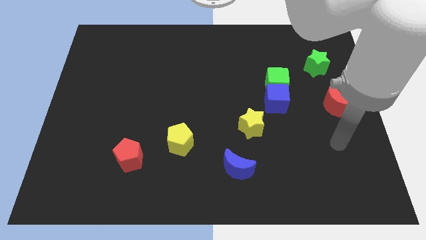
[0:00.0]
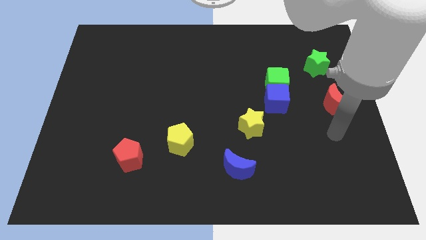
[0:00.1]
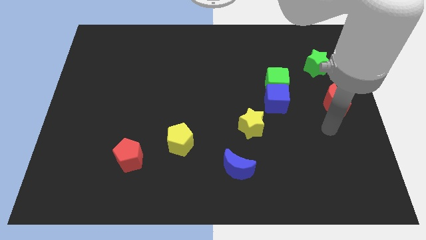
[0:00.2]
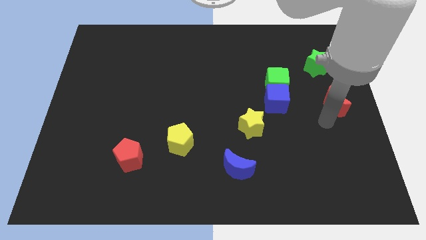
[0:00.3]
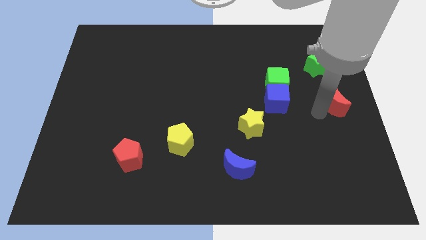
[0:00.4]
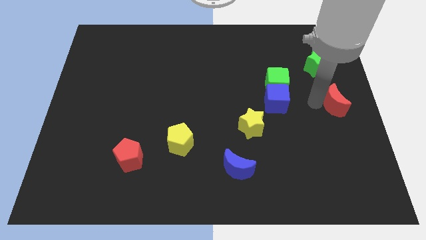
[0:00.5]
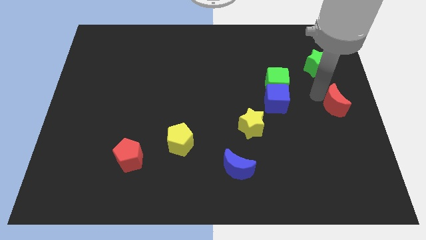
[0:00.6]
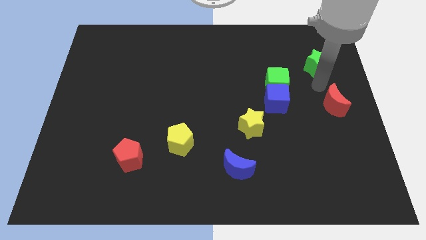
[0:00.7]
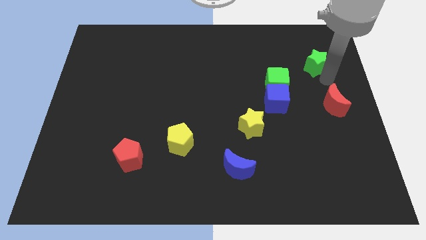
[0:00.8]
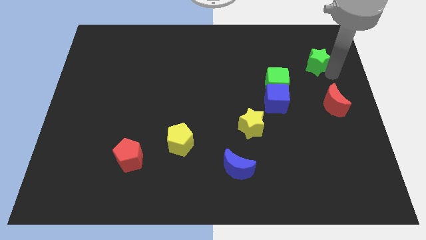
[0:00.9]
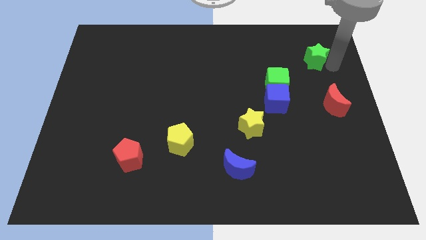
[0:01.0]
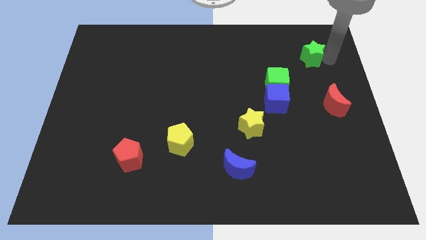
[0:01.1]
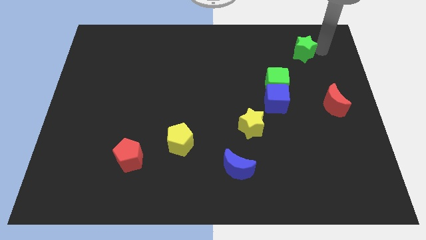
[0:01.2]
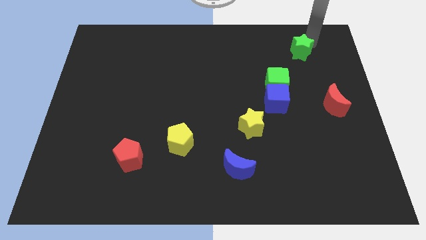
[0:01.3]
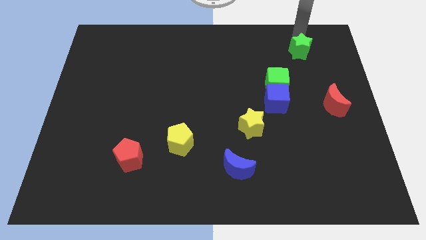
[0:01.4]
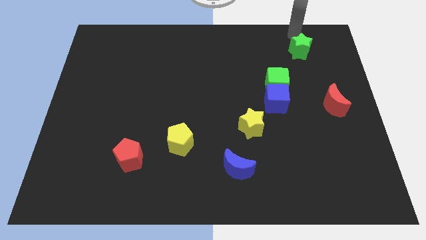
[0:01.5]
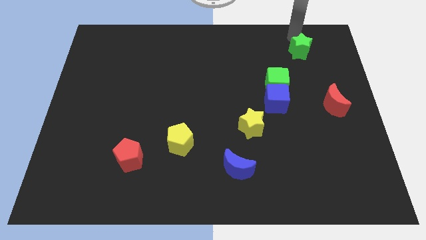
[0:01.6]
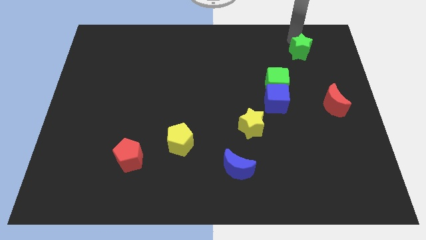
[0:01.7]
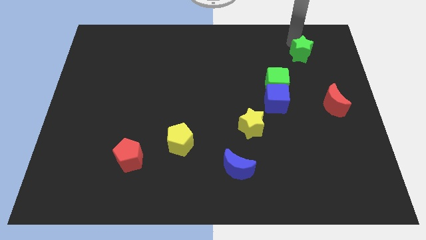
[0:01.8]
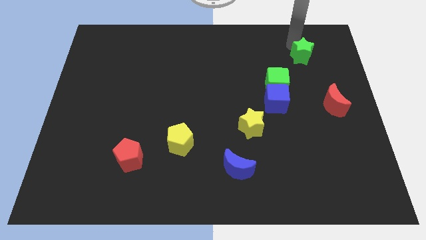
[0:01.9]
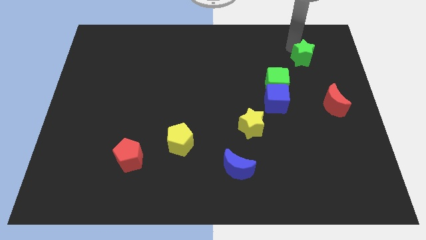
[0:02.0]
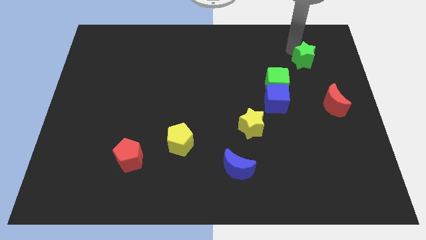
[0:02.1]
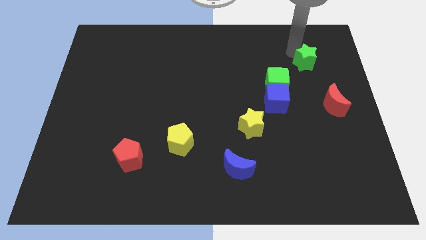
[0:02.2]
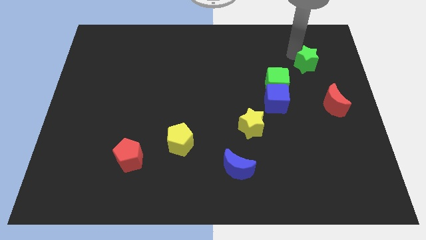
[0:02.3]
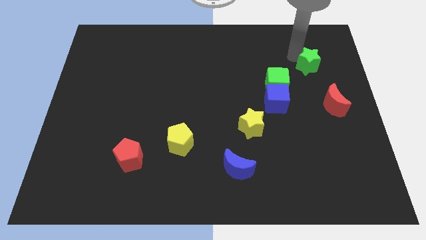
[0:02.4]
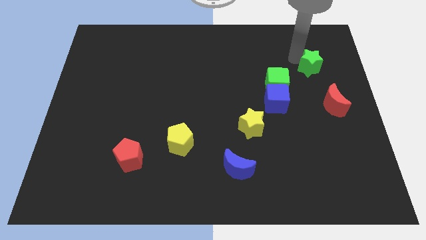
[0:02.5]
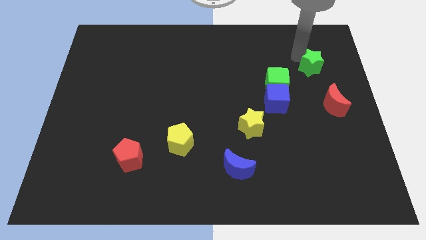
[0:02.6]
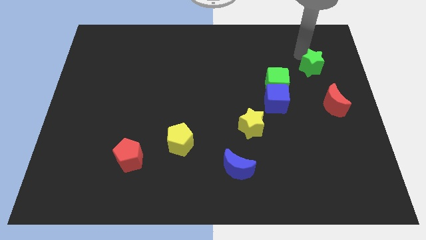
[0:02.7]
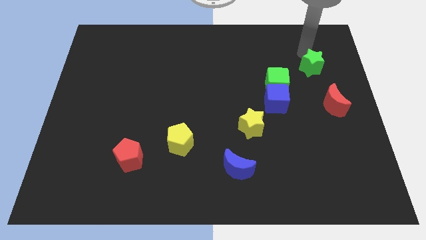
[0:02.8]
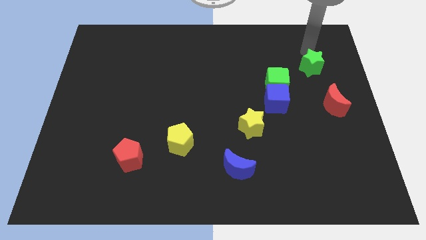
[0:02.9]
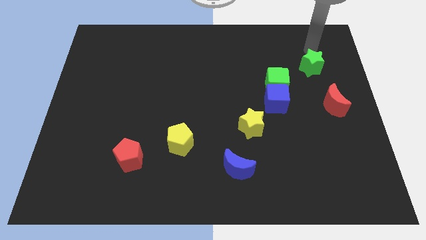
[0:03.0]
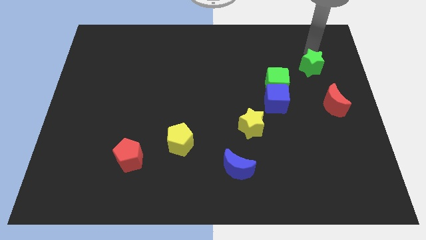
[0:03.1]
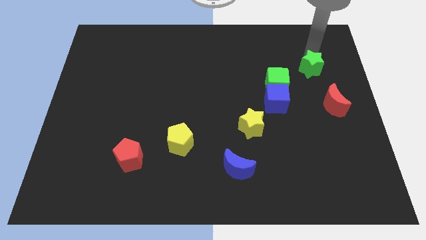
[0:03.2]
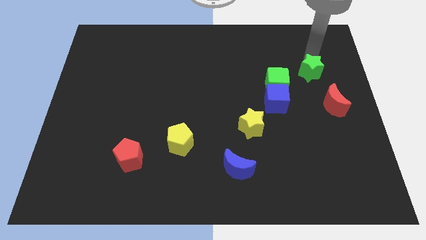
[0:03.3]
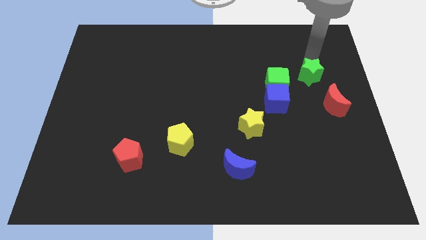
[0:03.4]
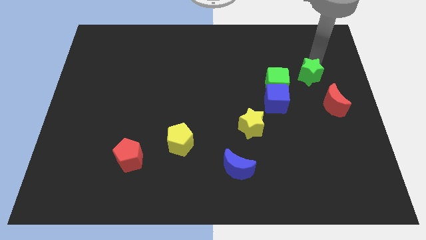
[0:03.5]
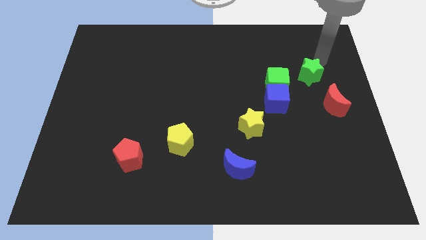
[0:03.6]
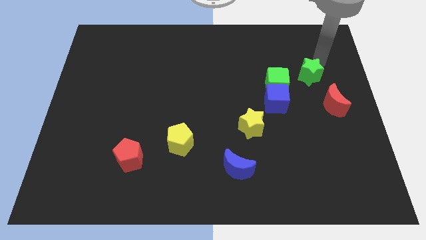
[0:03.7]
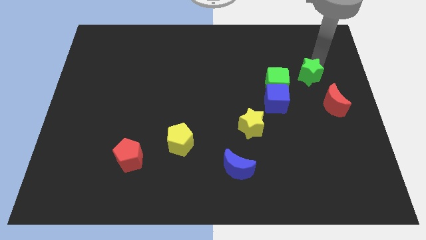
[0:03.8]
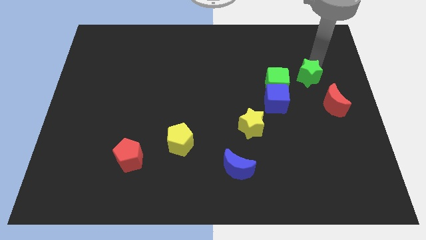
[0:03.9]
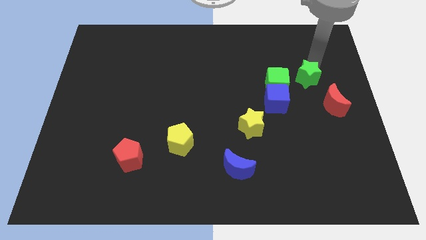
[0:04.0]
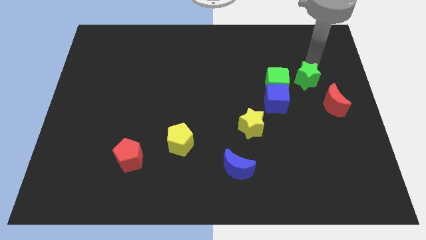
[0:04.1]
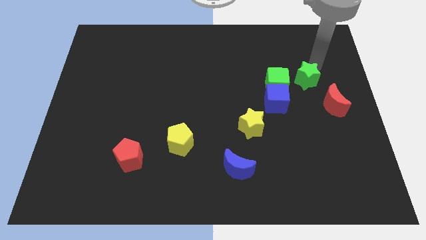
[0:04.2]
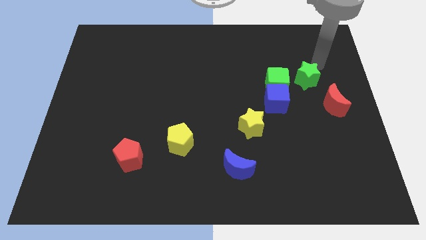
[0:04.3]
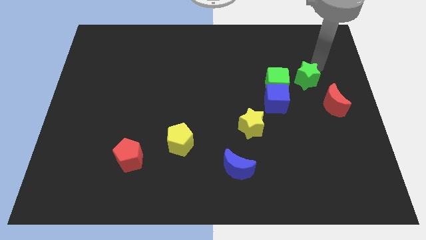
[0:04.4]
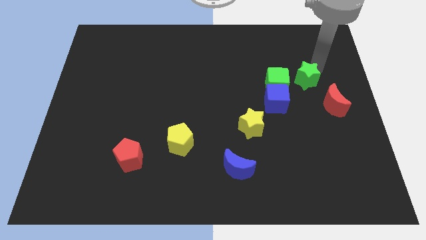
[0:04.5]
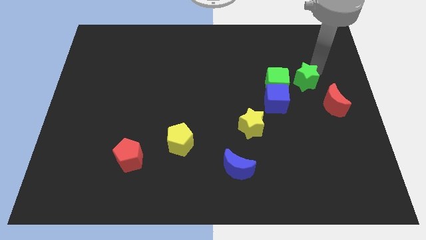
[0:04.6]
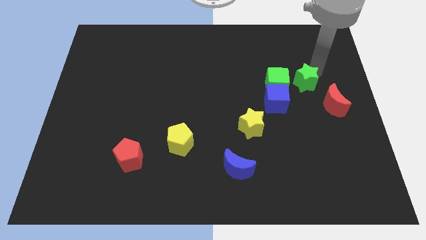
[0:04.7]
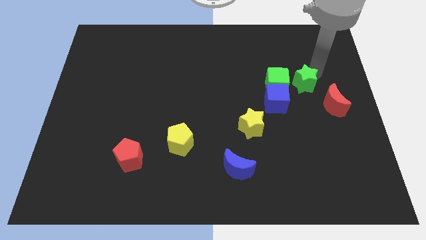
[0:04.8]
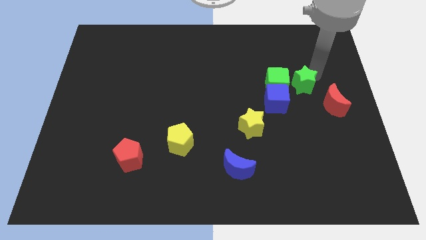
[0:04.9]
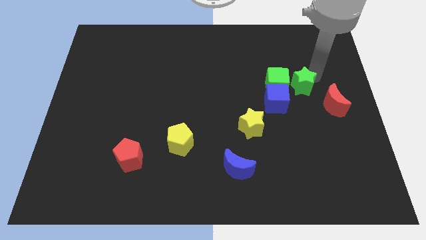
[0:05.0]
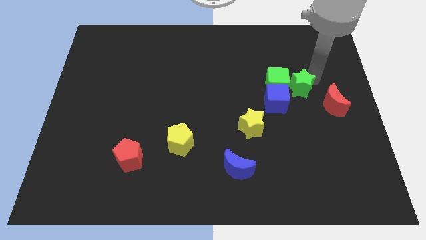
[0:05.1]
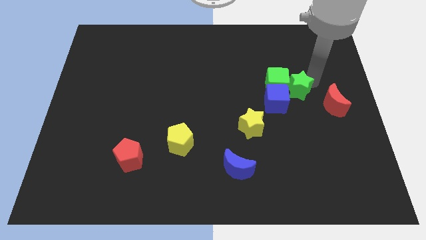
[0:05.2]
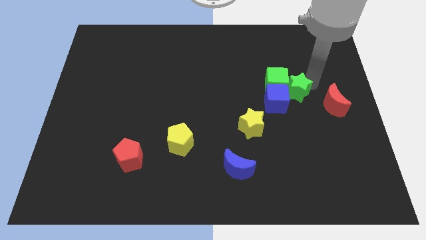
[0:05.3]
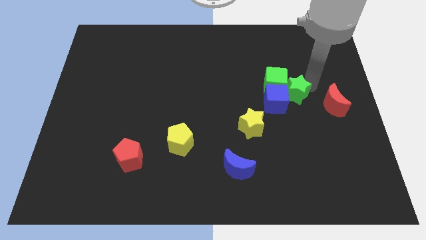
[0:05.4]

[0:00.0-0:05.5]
slide the green star close to the blue cube

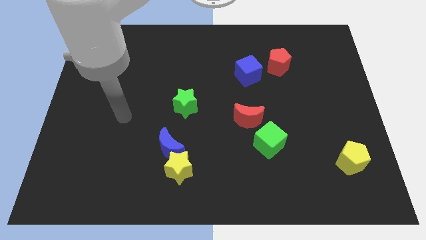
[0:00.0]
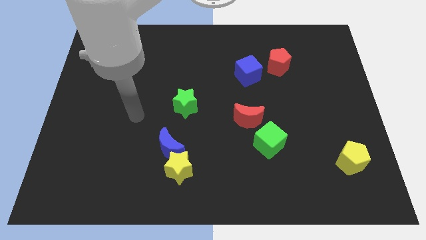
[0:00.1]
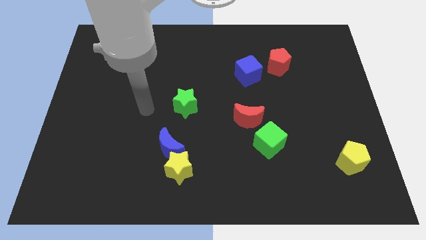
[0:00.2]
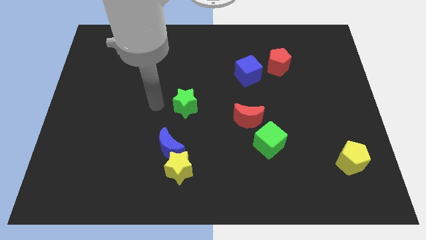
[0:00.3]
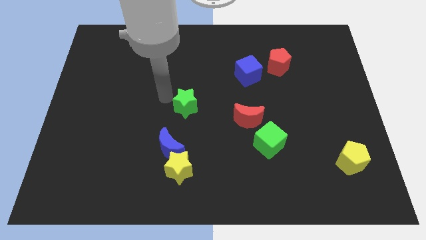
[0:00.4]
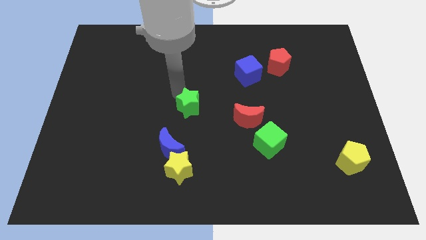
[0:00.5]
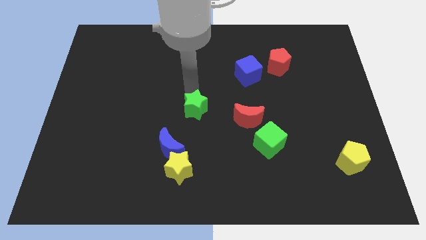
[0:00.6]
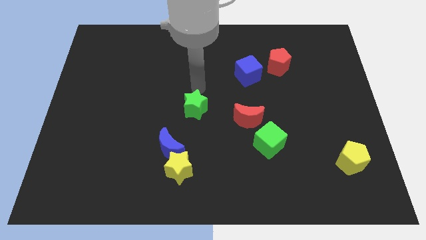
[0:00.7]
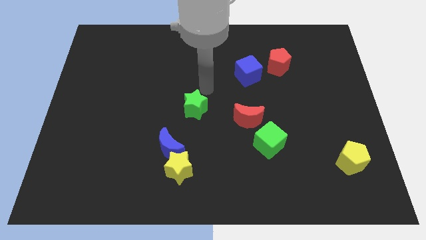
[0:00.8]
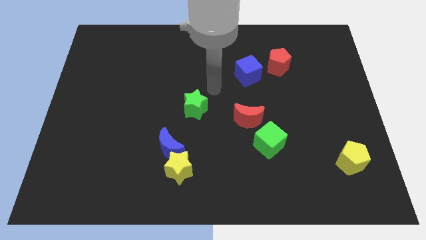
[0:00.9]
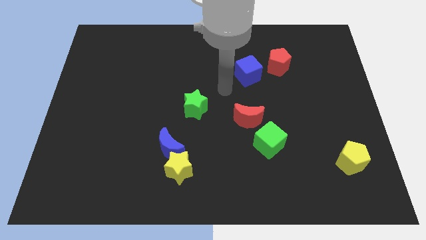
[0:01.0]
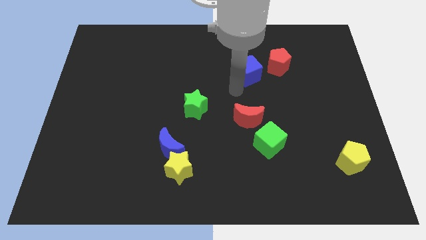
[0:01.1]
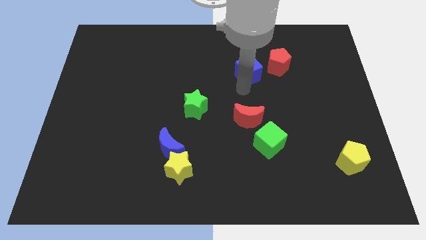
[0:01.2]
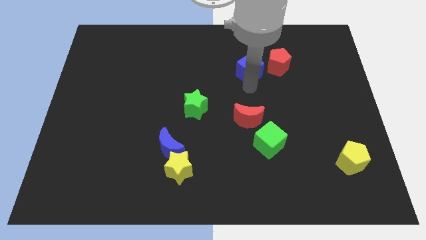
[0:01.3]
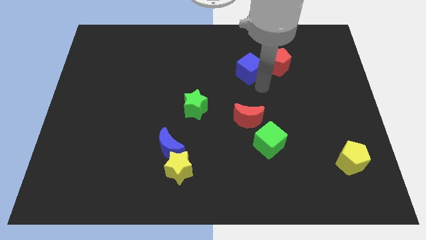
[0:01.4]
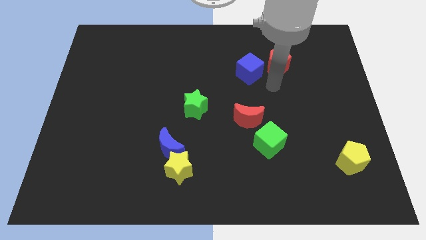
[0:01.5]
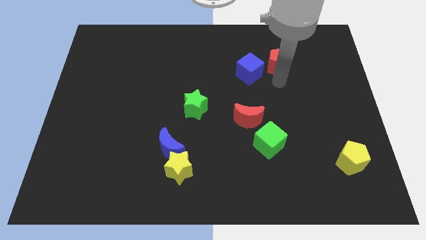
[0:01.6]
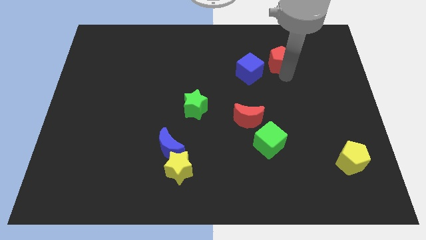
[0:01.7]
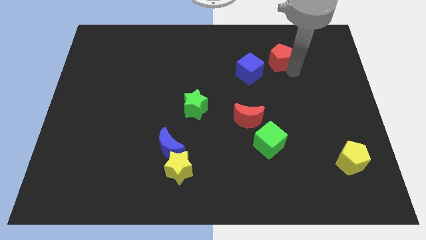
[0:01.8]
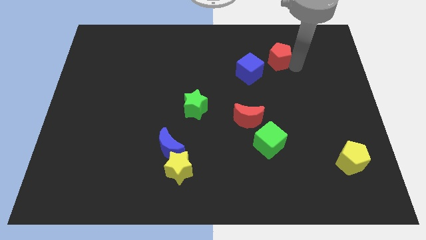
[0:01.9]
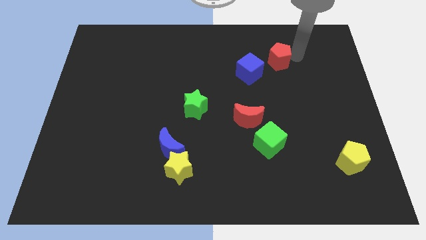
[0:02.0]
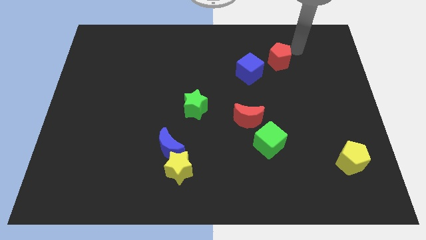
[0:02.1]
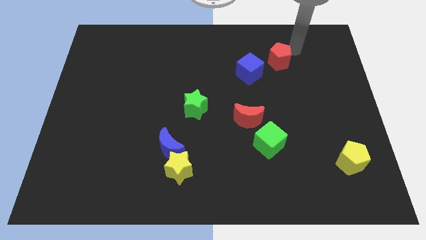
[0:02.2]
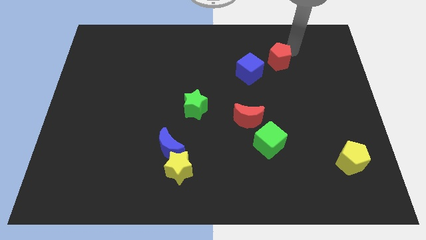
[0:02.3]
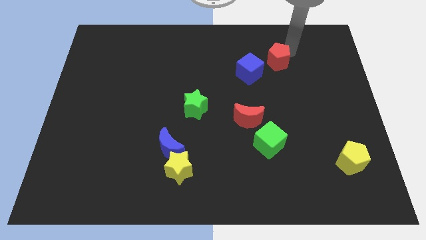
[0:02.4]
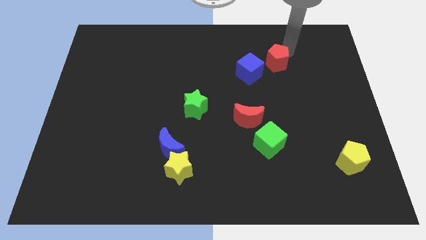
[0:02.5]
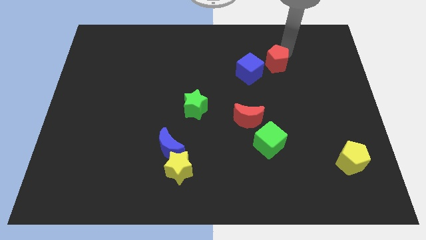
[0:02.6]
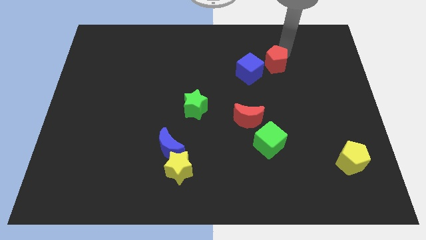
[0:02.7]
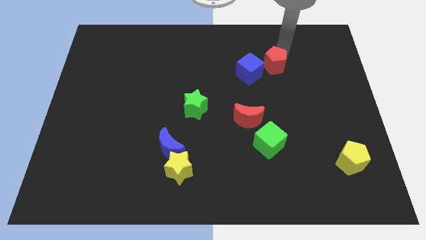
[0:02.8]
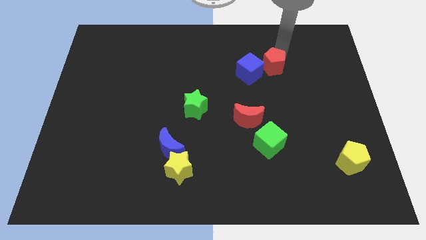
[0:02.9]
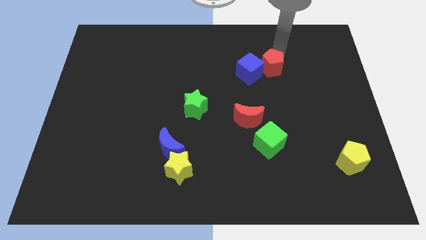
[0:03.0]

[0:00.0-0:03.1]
move the red pentagon to the blue cube
